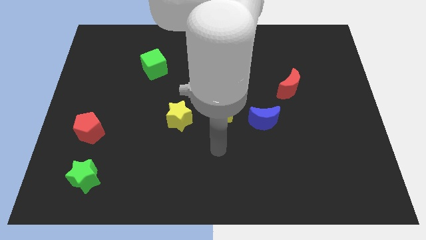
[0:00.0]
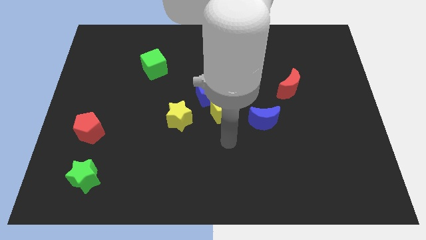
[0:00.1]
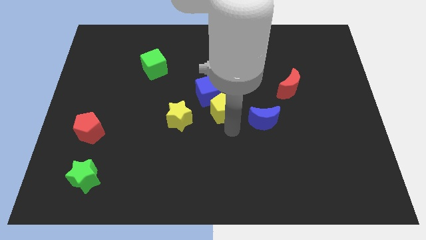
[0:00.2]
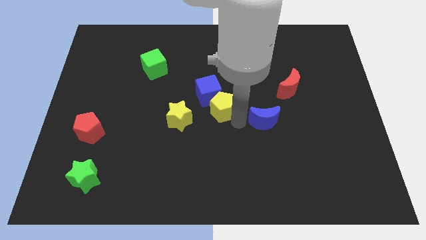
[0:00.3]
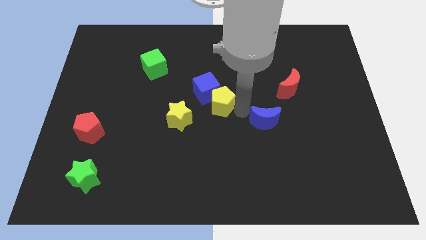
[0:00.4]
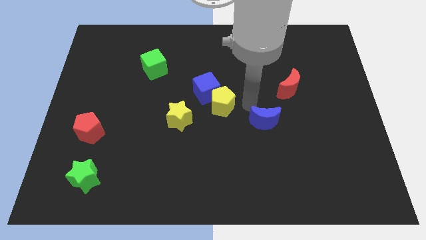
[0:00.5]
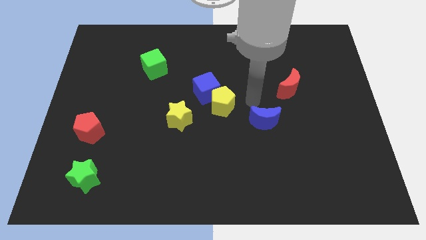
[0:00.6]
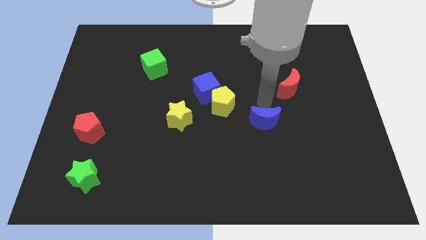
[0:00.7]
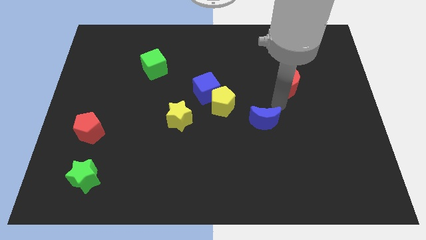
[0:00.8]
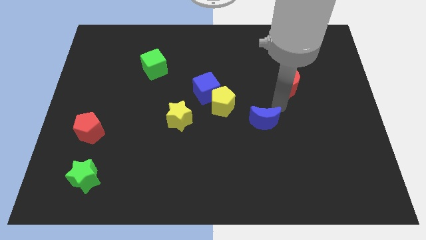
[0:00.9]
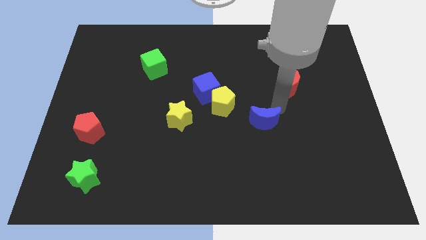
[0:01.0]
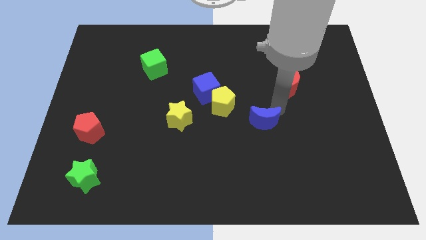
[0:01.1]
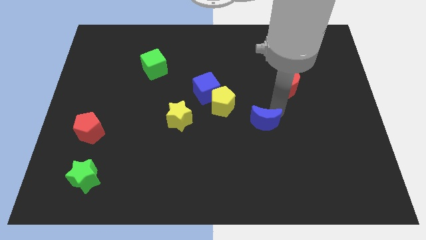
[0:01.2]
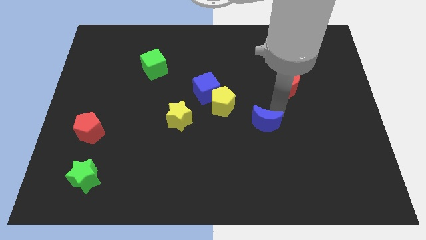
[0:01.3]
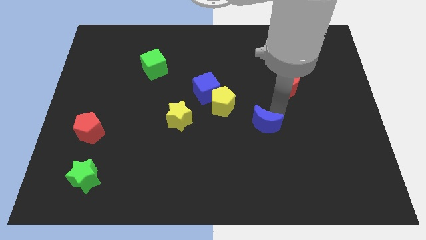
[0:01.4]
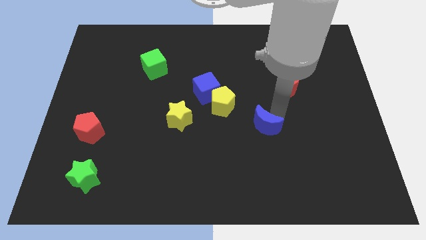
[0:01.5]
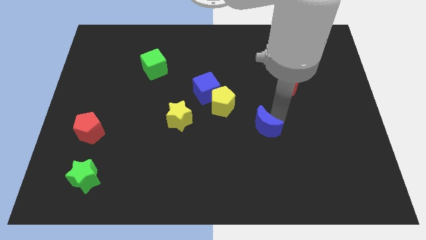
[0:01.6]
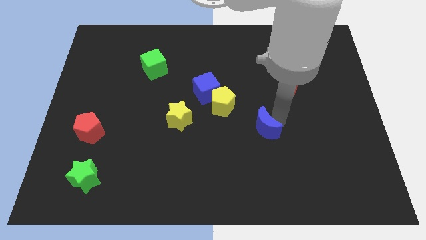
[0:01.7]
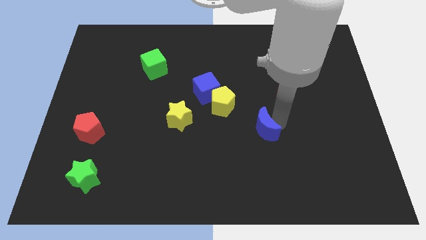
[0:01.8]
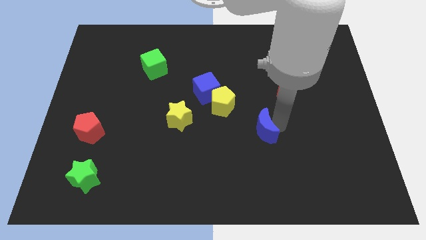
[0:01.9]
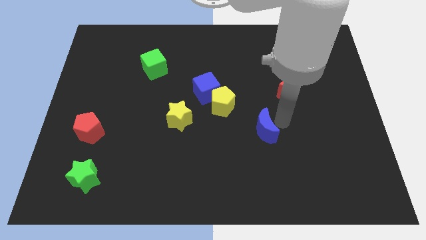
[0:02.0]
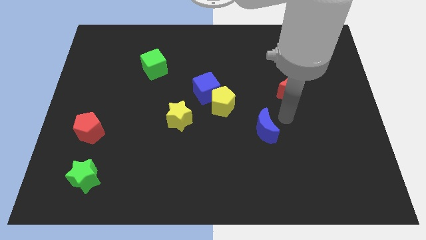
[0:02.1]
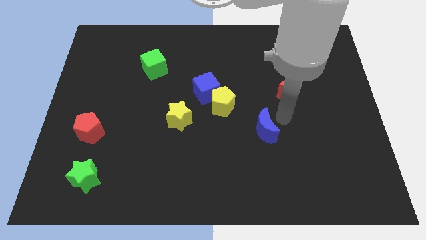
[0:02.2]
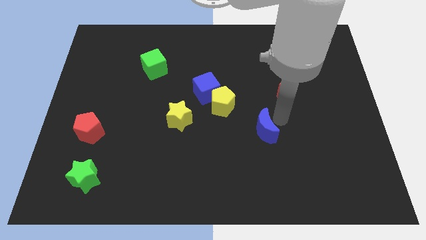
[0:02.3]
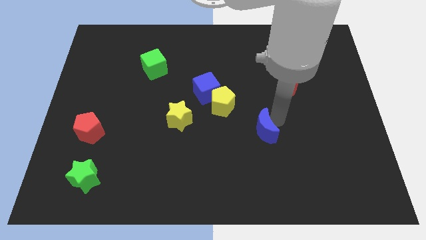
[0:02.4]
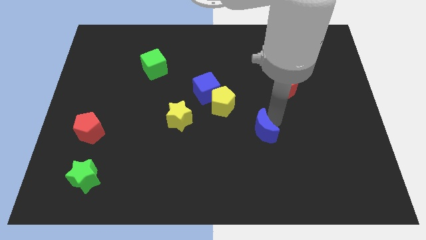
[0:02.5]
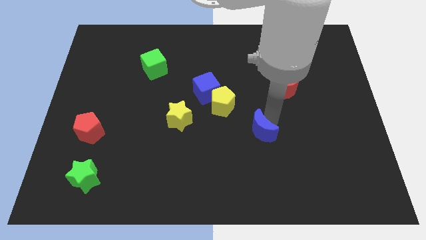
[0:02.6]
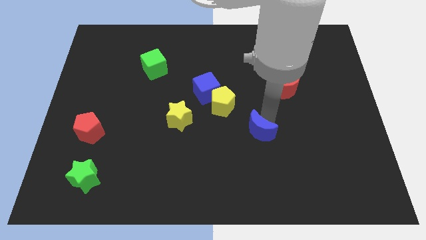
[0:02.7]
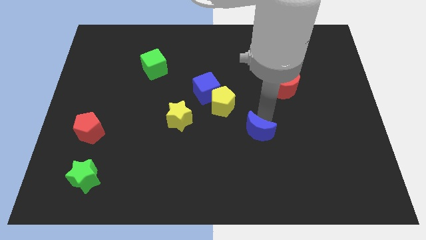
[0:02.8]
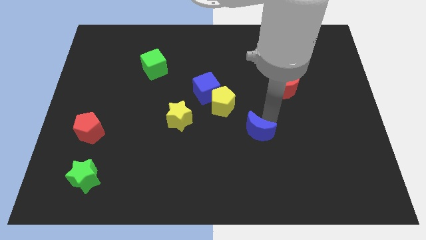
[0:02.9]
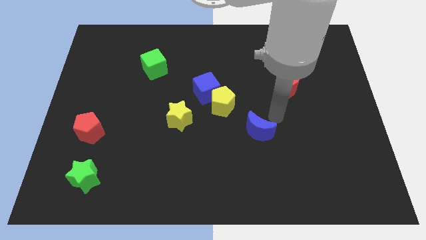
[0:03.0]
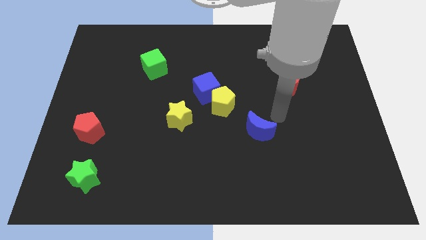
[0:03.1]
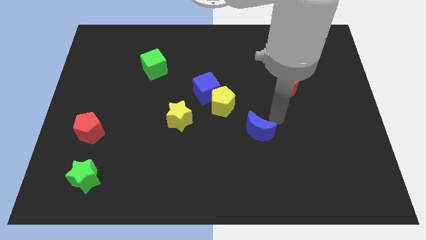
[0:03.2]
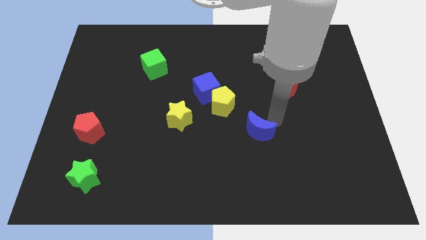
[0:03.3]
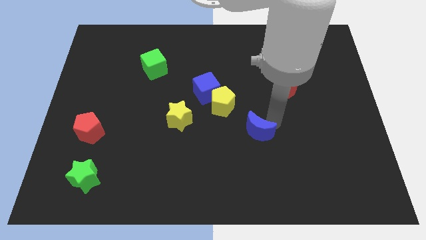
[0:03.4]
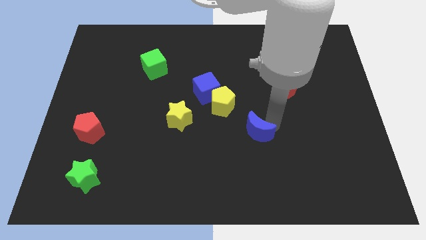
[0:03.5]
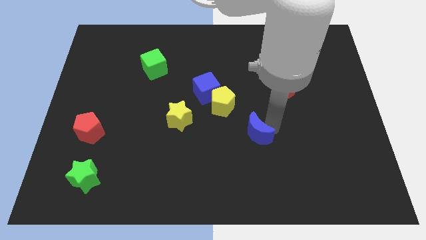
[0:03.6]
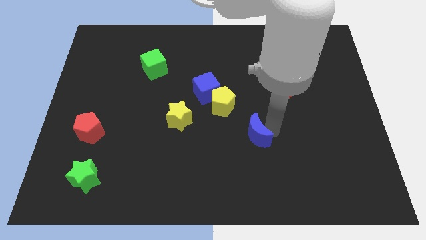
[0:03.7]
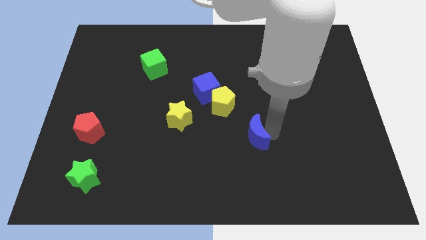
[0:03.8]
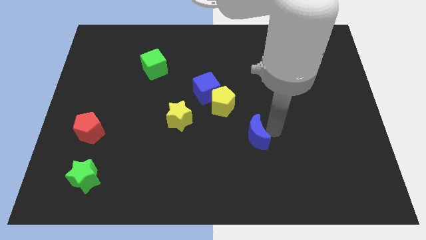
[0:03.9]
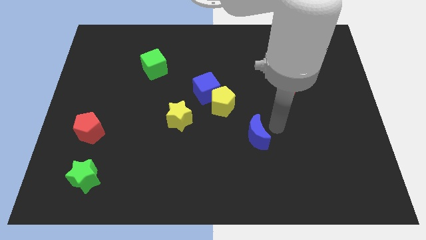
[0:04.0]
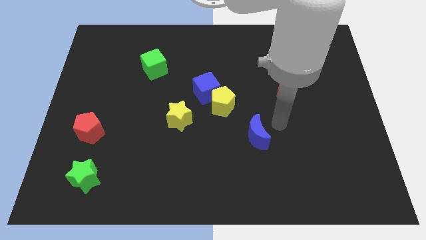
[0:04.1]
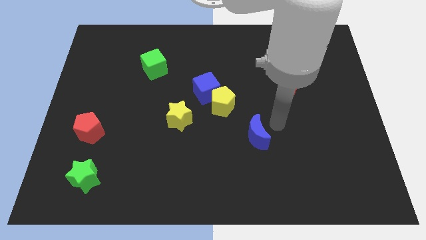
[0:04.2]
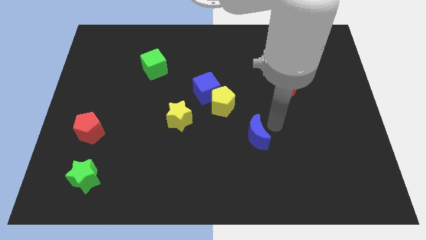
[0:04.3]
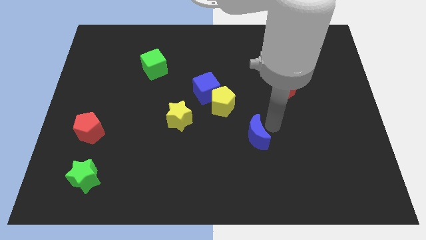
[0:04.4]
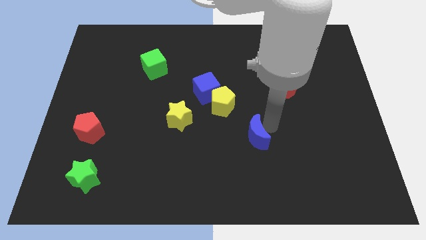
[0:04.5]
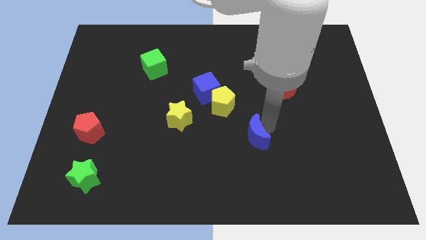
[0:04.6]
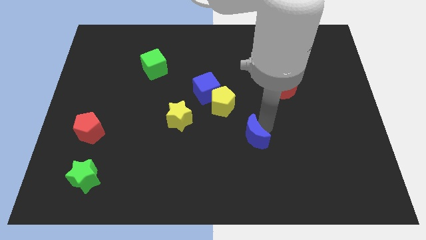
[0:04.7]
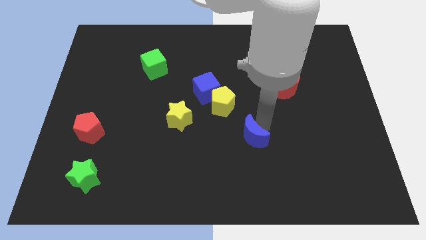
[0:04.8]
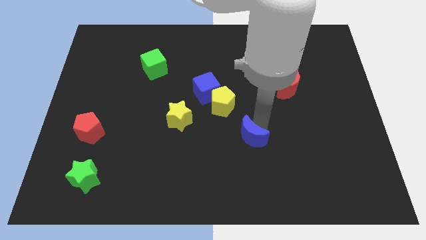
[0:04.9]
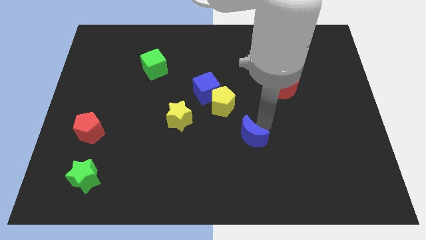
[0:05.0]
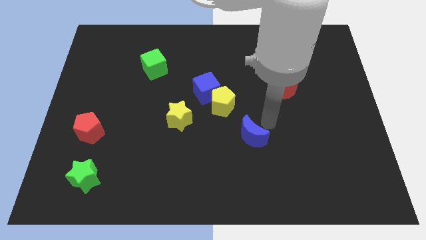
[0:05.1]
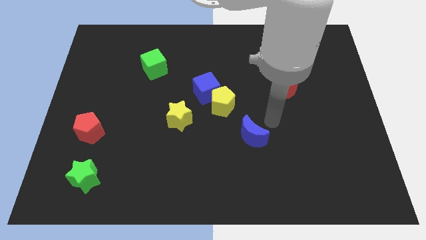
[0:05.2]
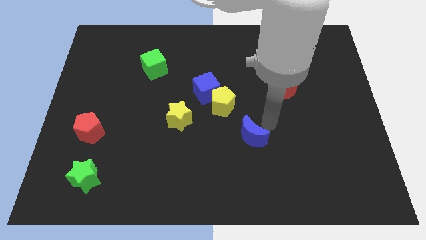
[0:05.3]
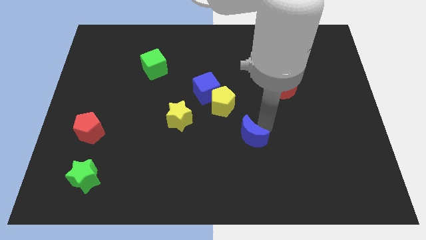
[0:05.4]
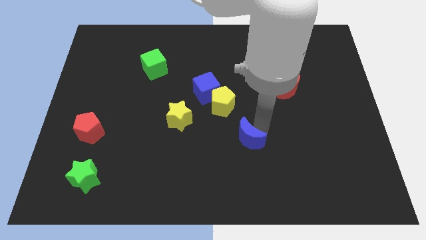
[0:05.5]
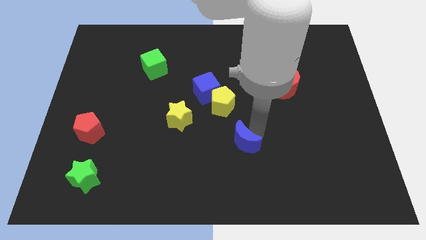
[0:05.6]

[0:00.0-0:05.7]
slightly slide the blue moon diagonally down and left

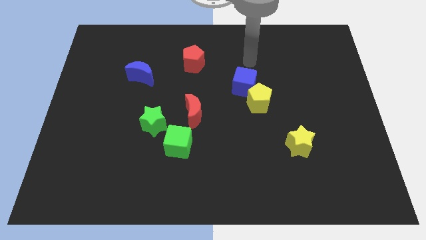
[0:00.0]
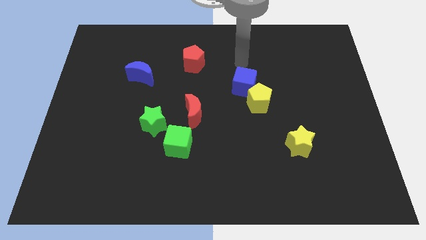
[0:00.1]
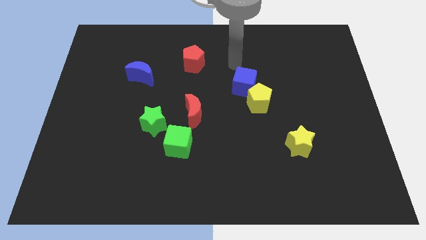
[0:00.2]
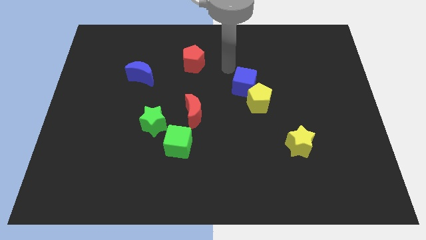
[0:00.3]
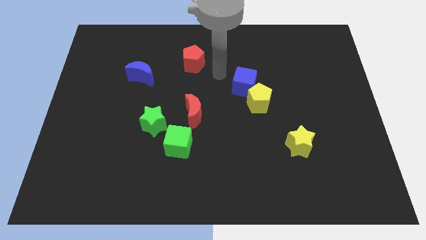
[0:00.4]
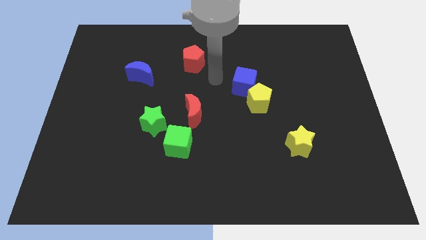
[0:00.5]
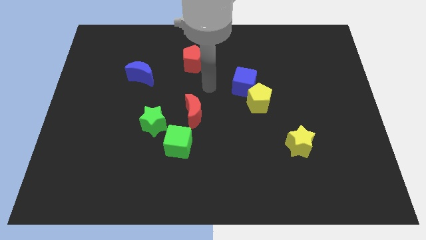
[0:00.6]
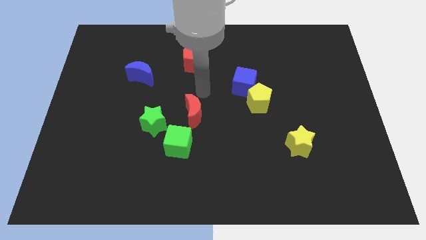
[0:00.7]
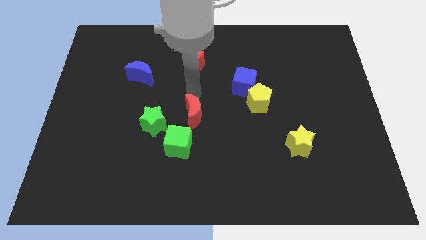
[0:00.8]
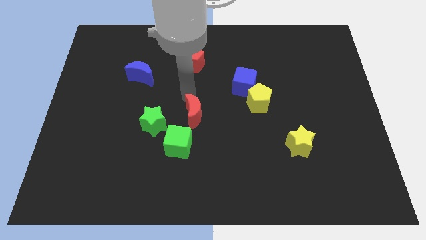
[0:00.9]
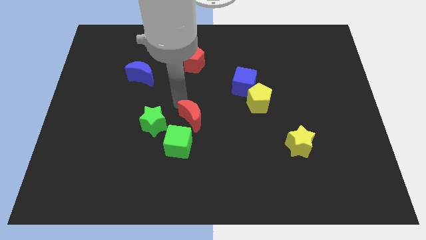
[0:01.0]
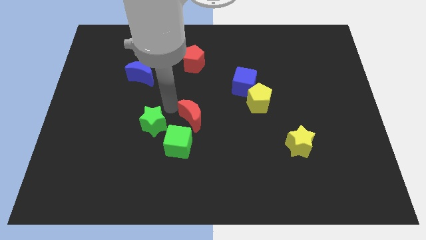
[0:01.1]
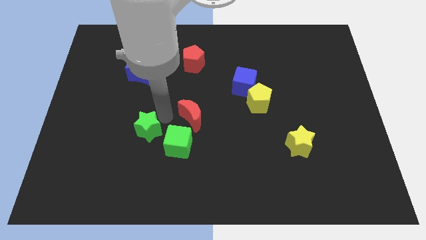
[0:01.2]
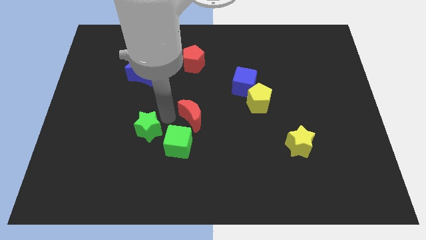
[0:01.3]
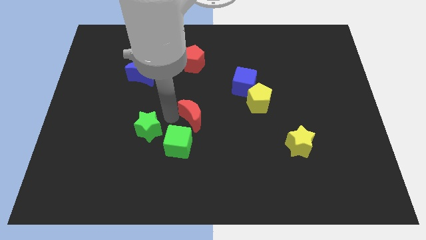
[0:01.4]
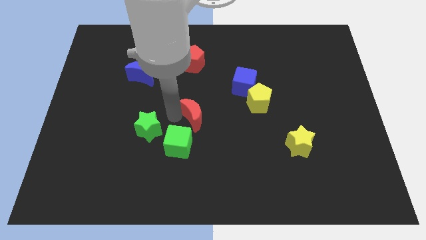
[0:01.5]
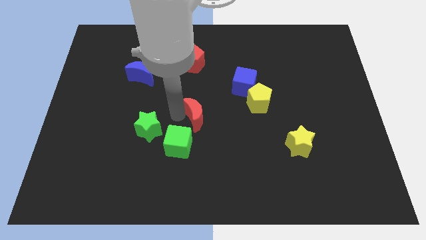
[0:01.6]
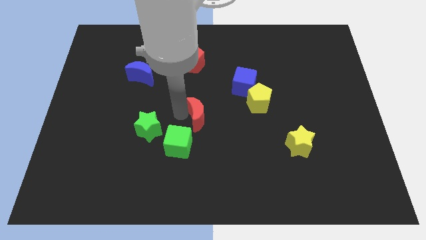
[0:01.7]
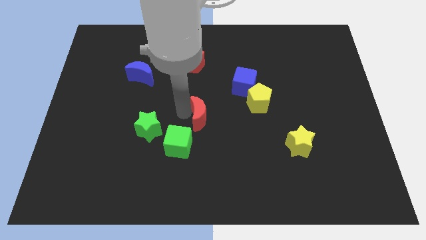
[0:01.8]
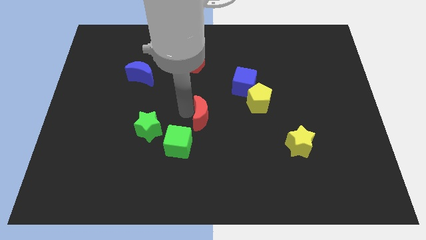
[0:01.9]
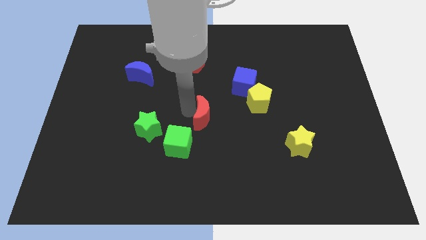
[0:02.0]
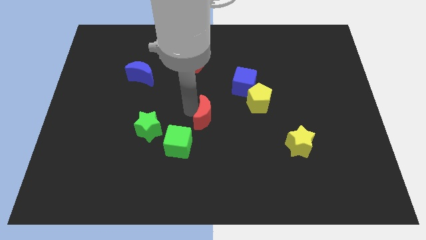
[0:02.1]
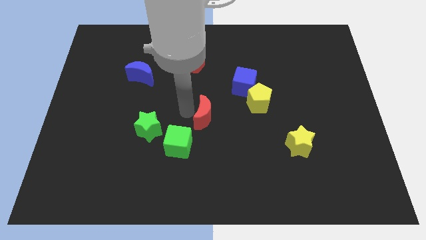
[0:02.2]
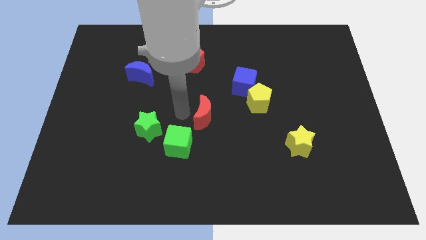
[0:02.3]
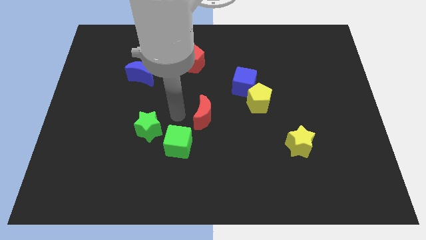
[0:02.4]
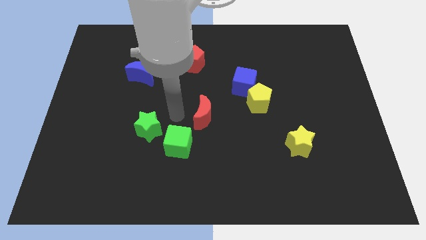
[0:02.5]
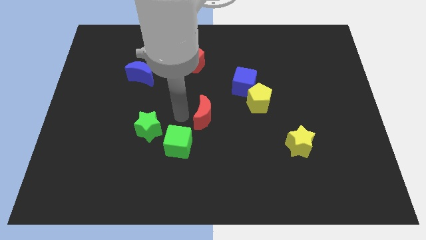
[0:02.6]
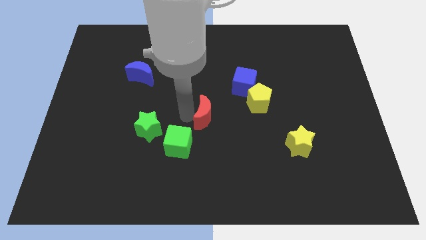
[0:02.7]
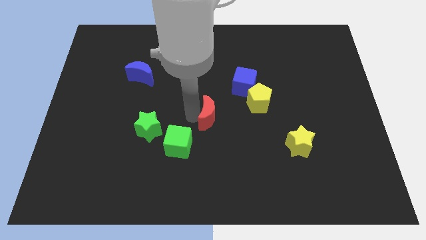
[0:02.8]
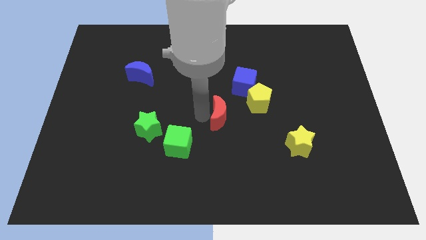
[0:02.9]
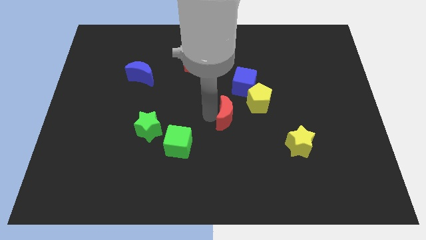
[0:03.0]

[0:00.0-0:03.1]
slightly push the red moon right
